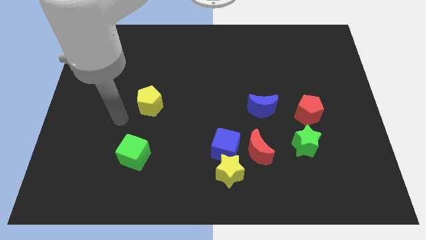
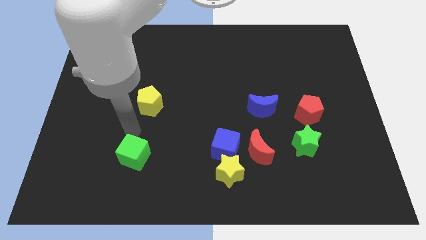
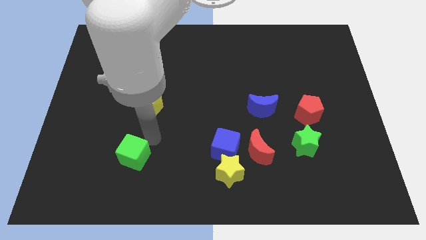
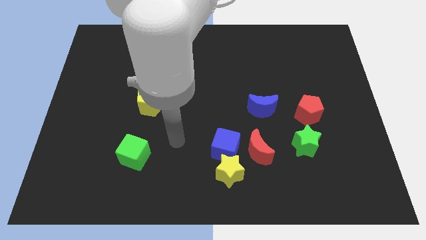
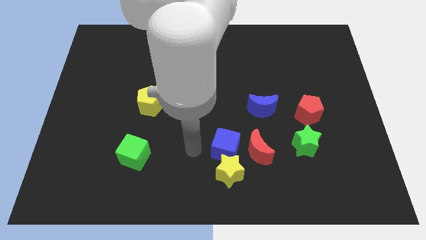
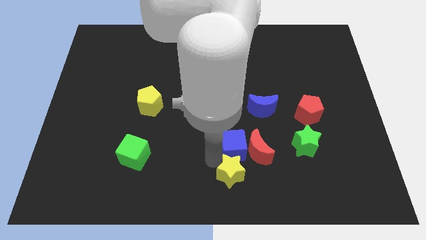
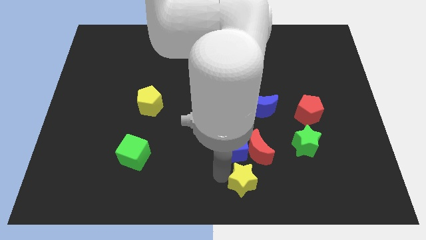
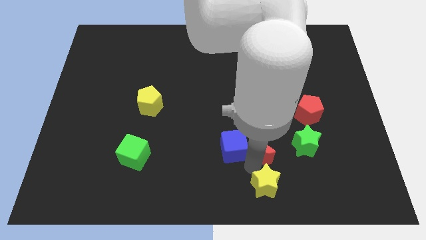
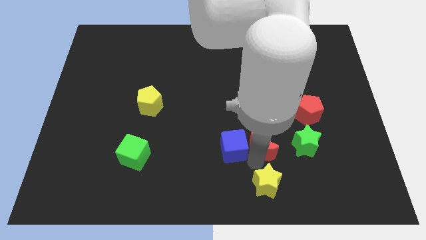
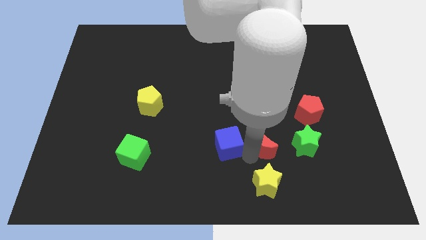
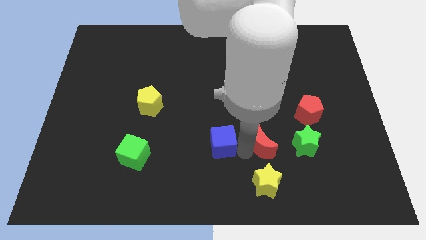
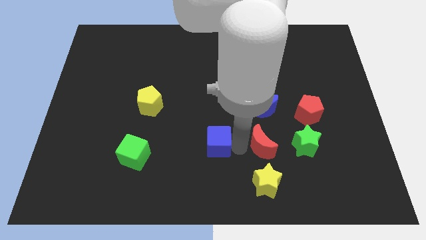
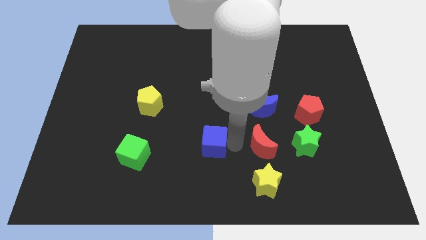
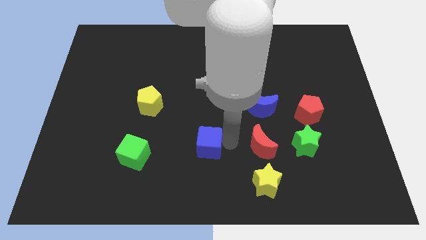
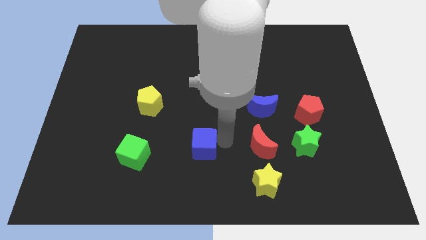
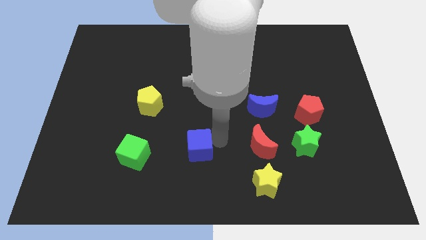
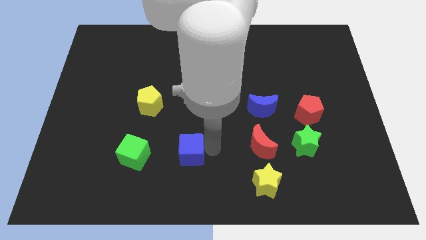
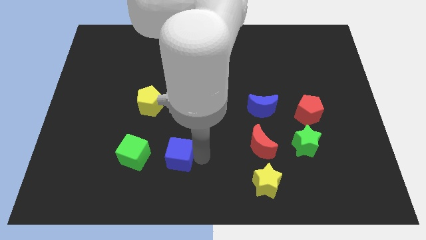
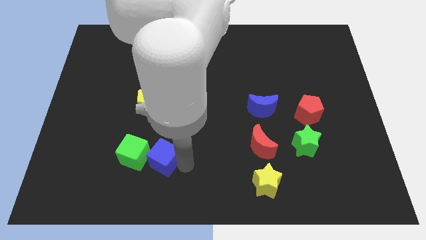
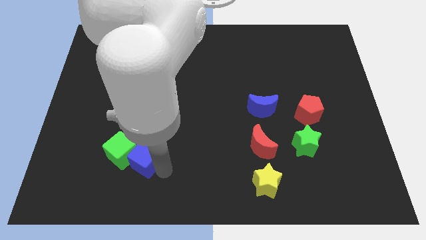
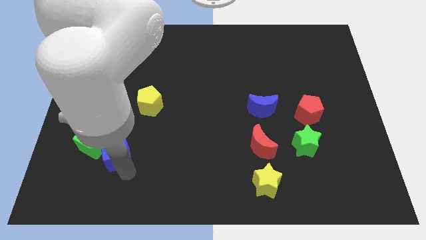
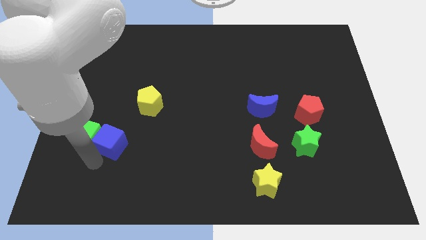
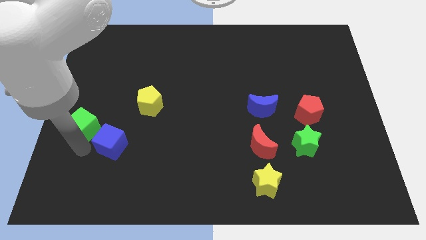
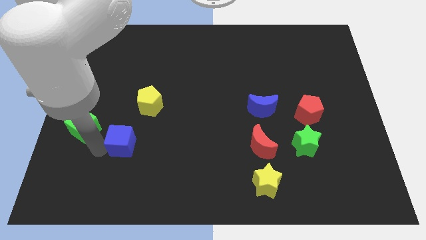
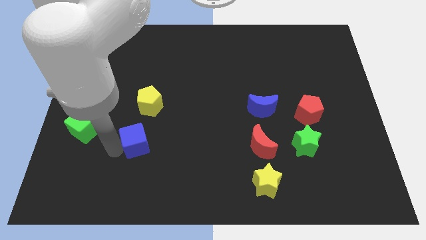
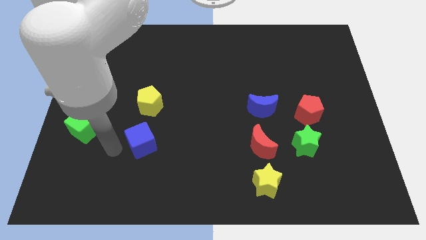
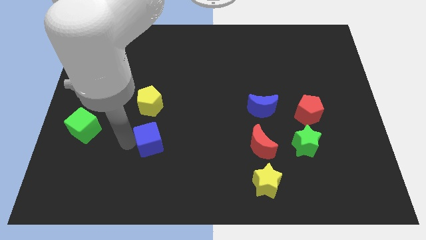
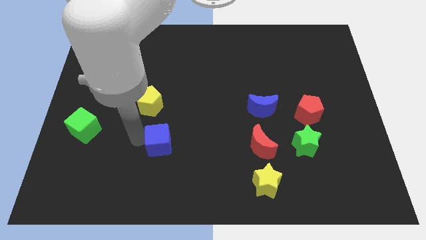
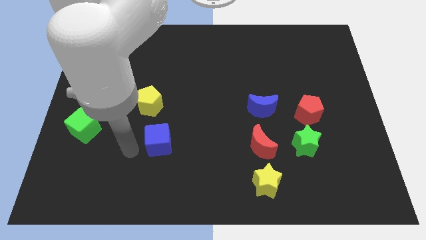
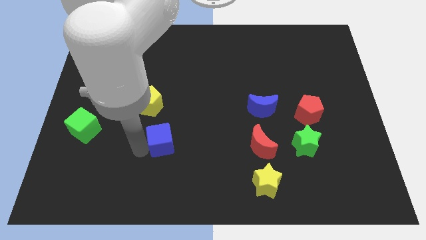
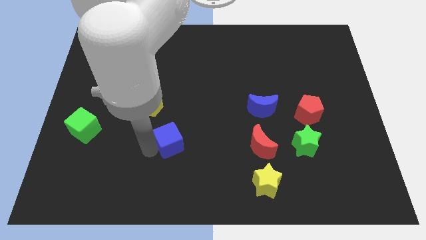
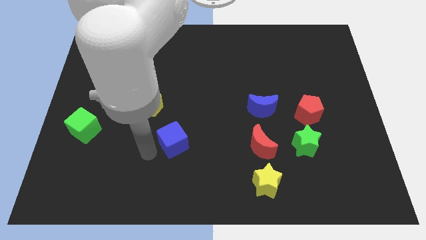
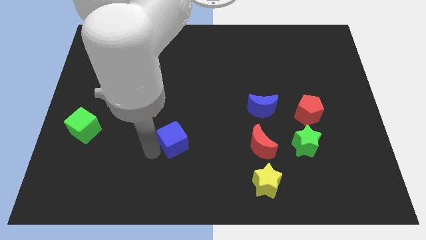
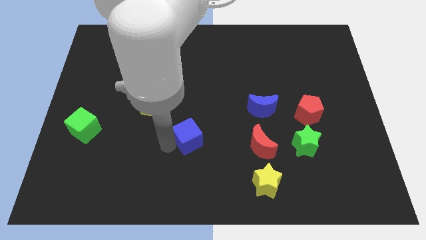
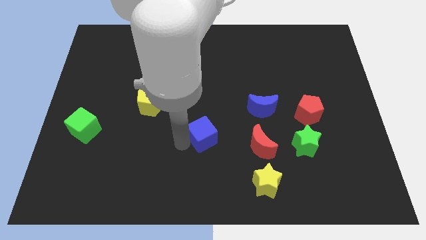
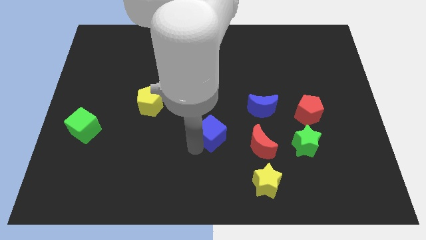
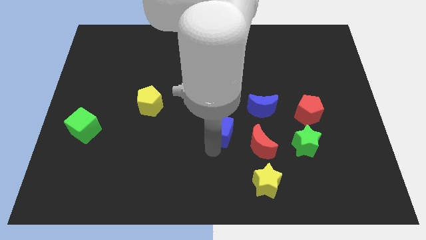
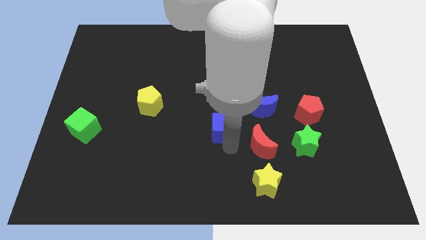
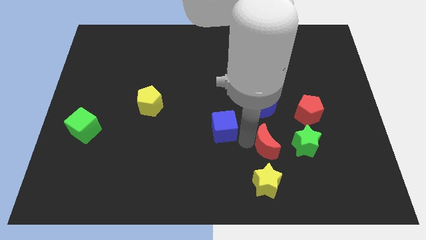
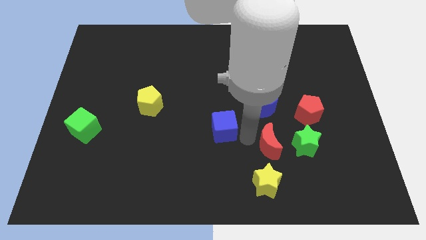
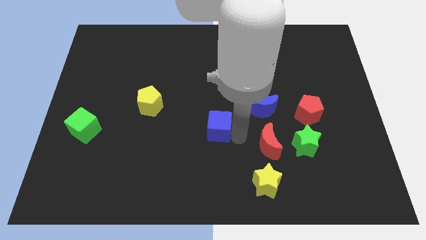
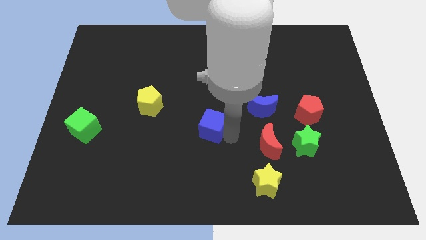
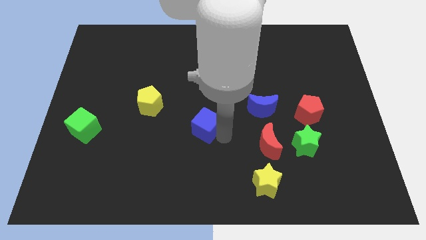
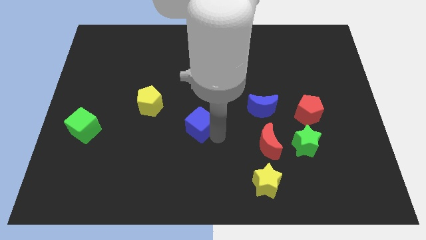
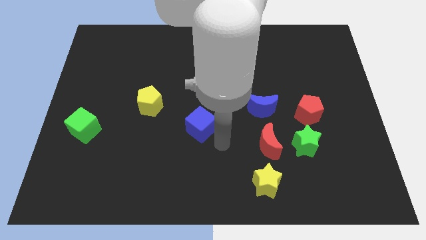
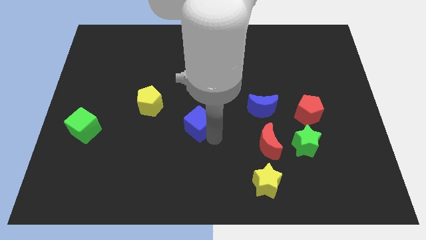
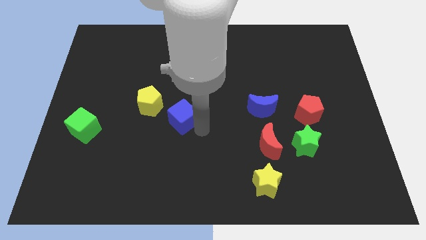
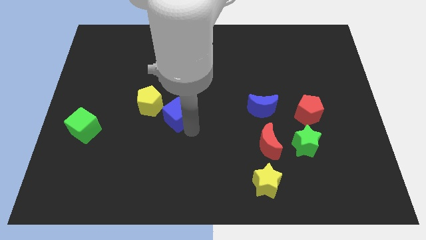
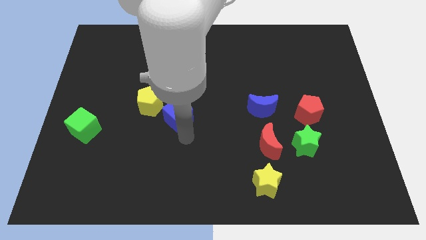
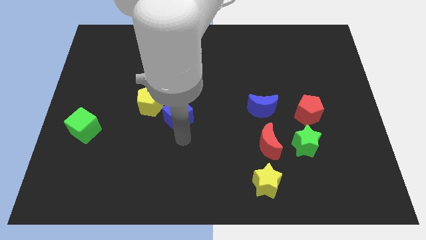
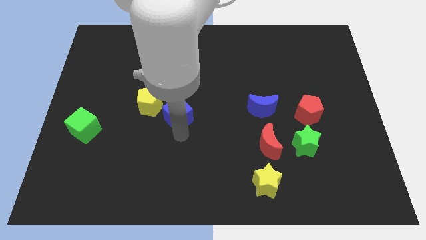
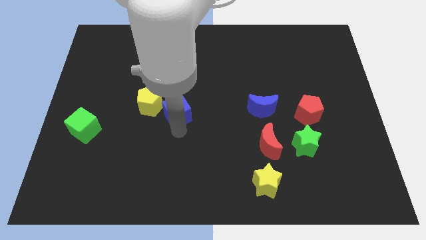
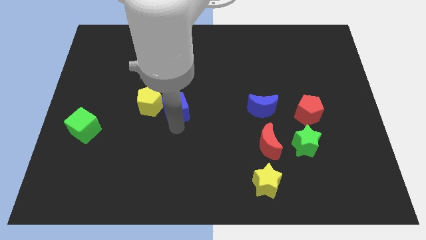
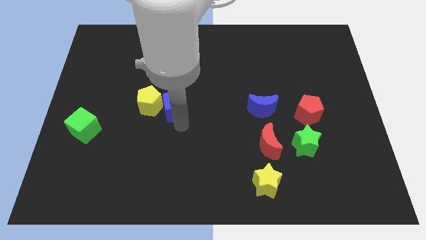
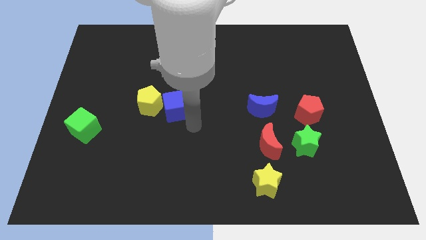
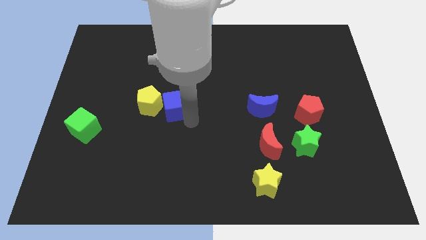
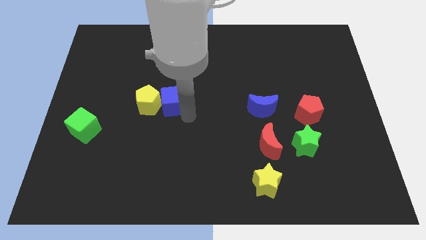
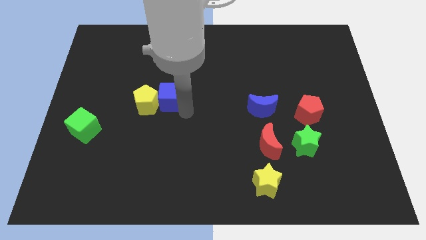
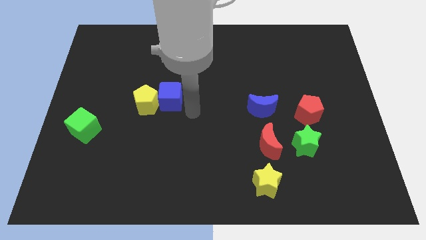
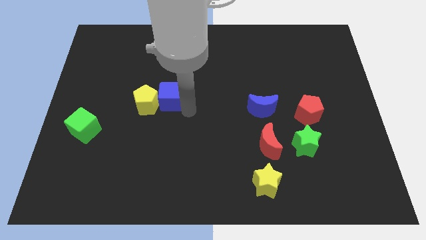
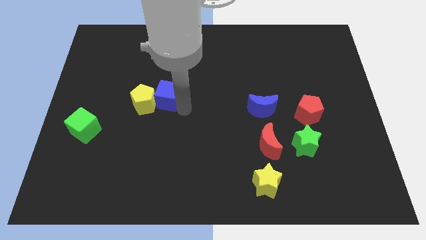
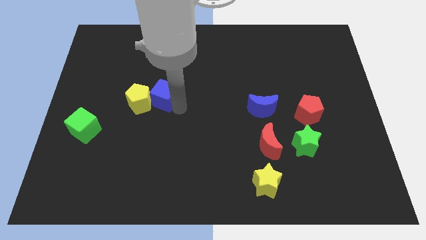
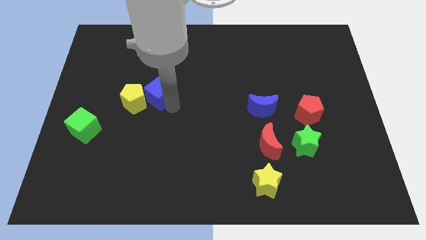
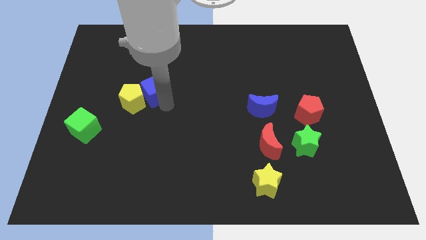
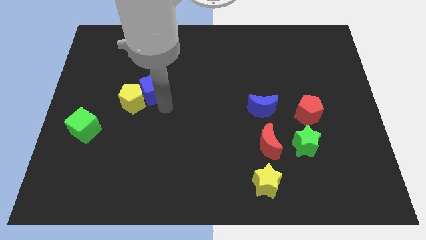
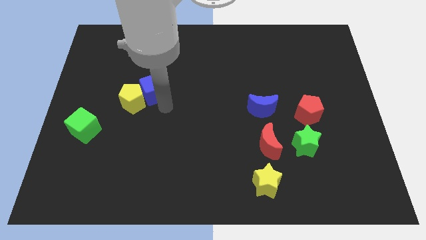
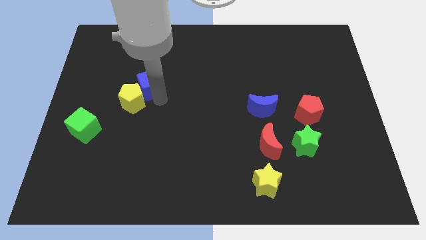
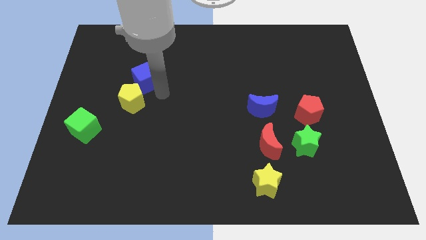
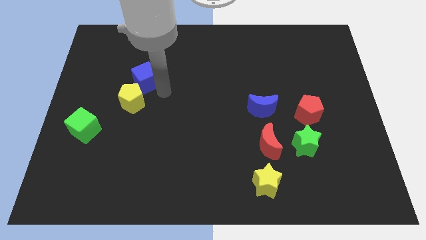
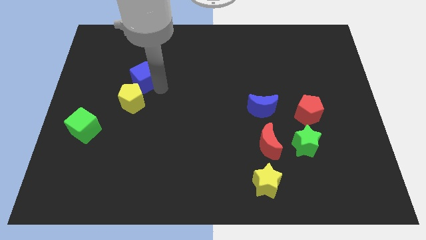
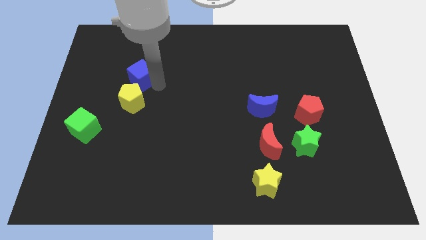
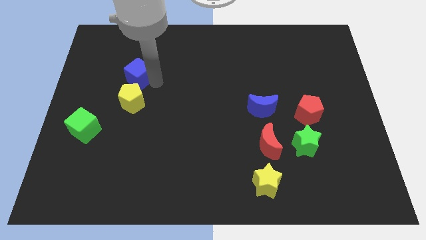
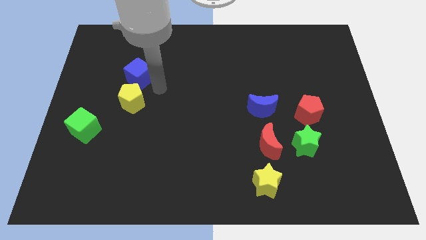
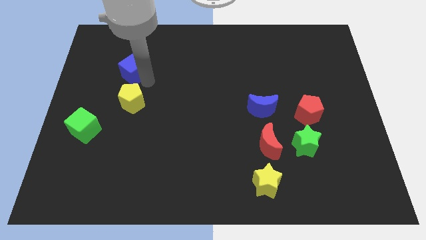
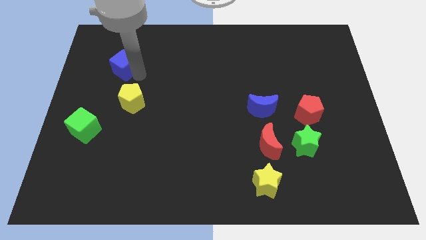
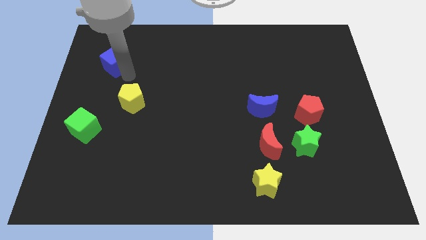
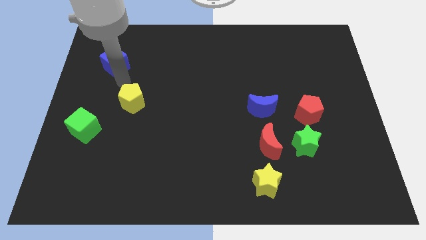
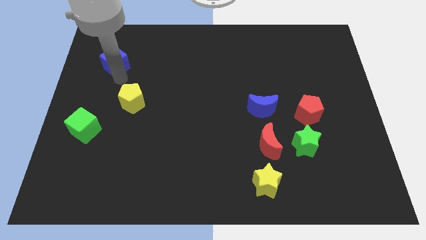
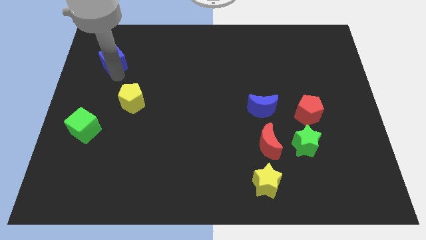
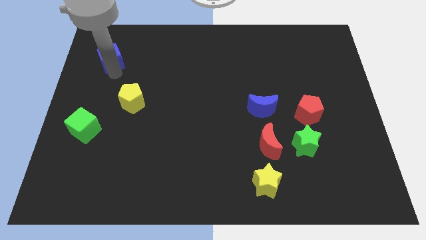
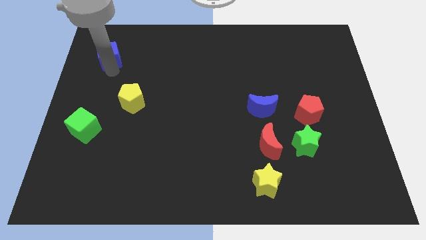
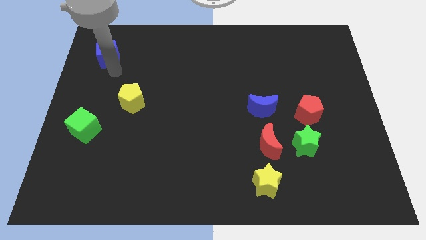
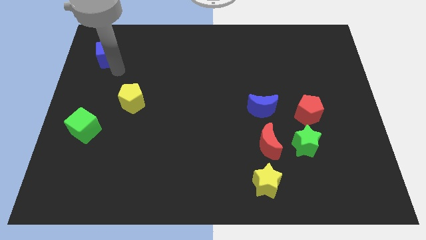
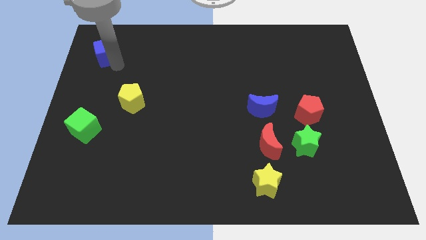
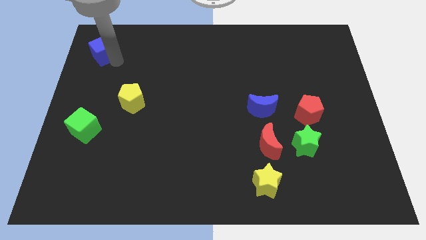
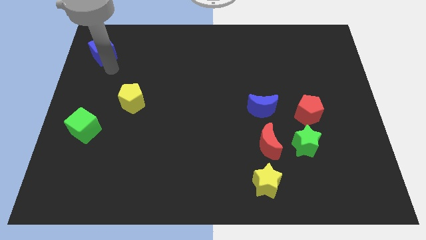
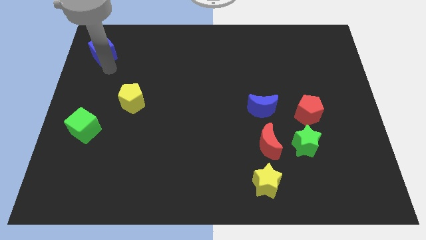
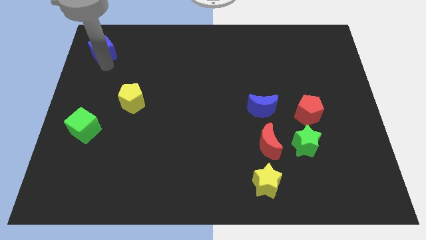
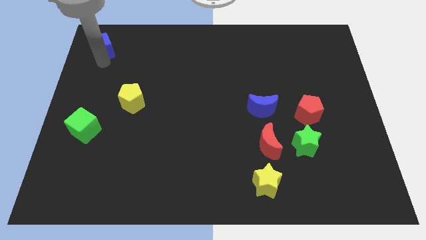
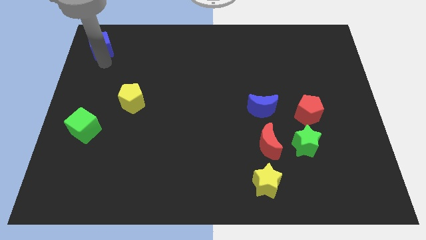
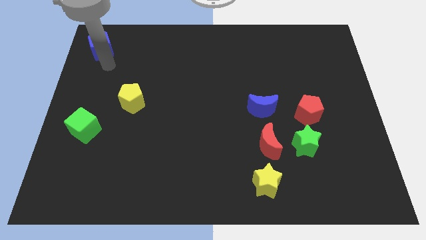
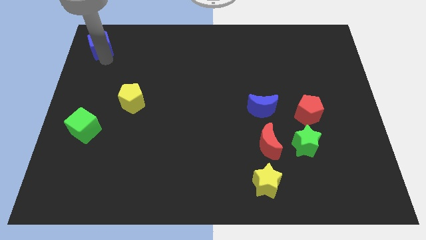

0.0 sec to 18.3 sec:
slide the blue cube to the top left corner
